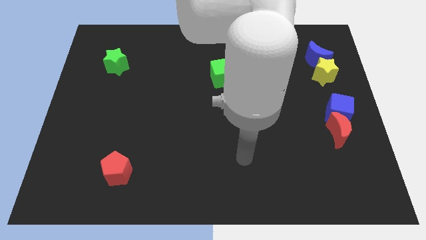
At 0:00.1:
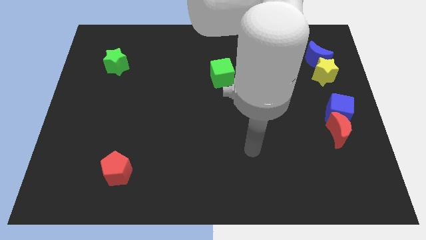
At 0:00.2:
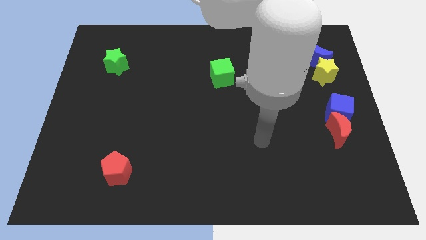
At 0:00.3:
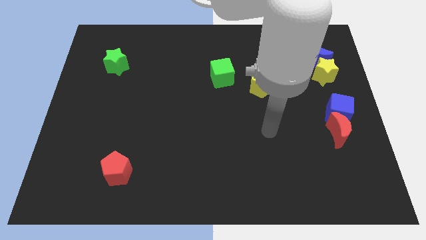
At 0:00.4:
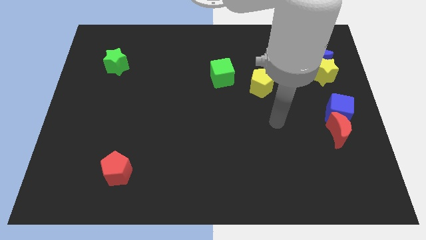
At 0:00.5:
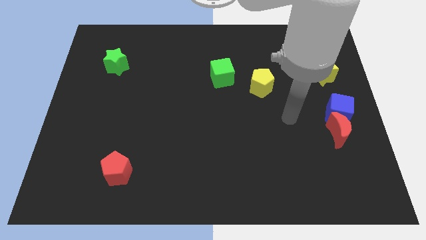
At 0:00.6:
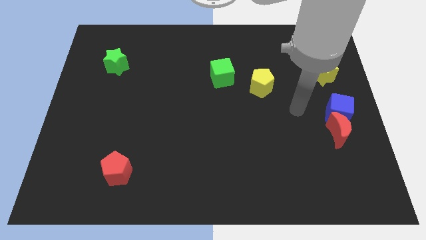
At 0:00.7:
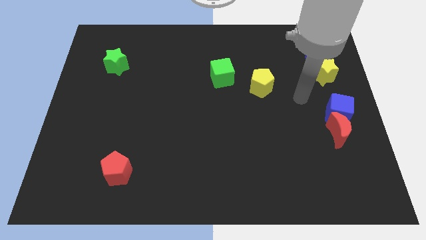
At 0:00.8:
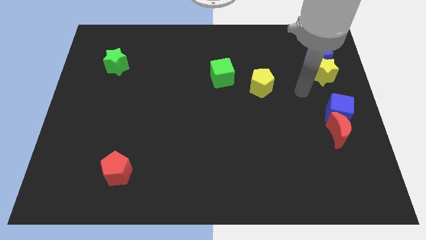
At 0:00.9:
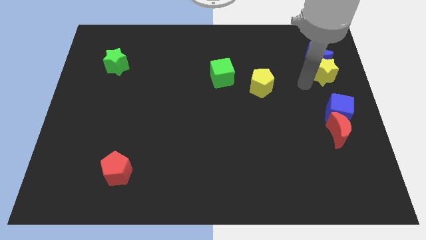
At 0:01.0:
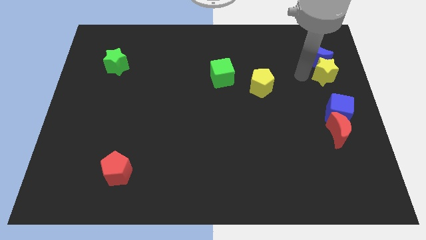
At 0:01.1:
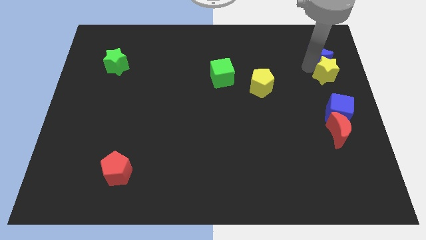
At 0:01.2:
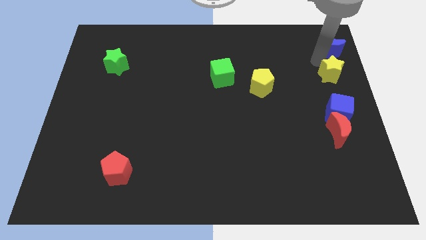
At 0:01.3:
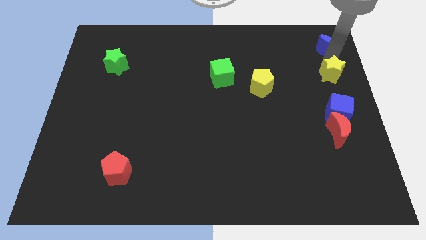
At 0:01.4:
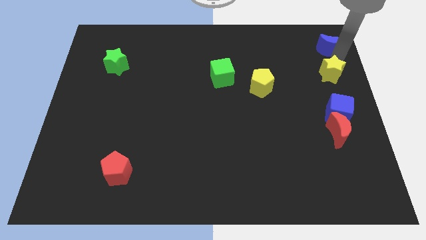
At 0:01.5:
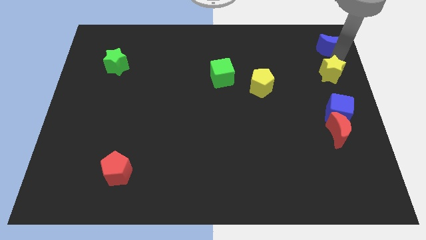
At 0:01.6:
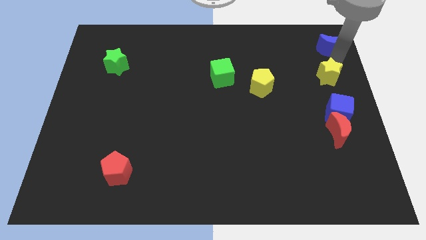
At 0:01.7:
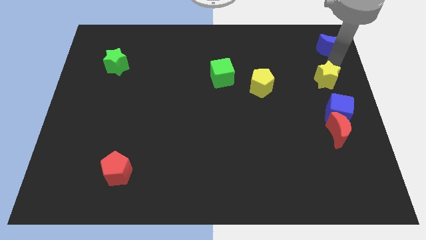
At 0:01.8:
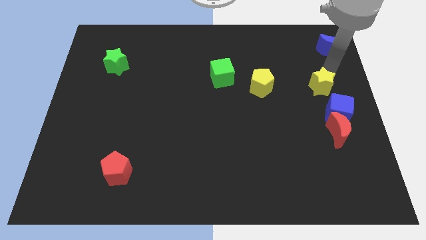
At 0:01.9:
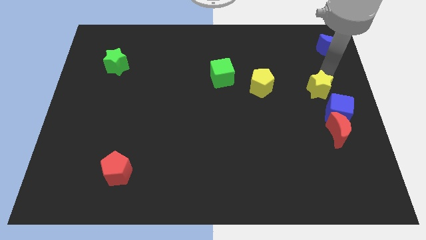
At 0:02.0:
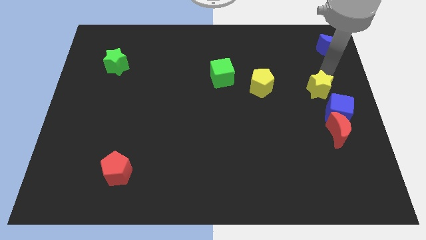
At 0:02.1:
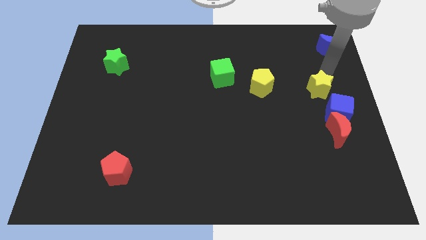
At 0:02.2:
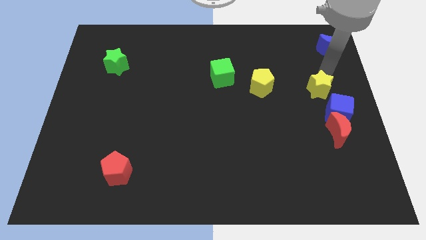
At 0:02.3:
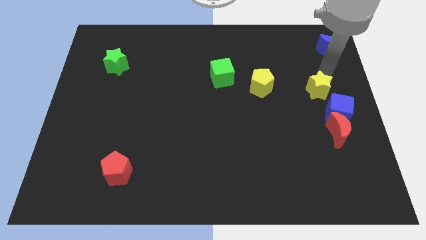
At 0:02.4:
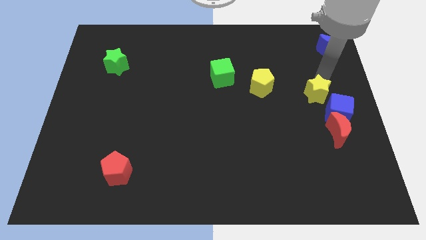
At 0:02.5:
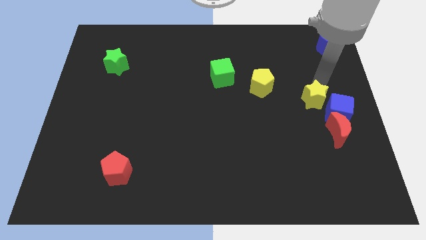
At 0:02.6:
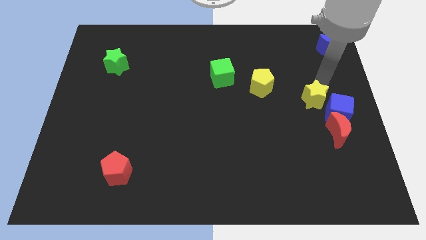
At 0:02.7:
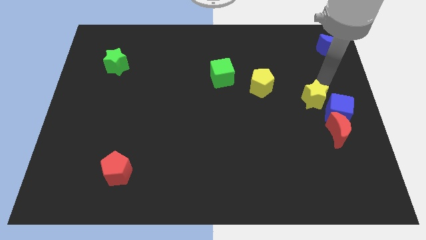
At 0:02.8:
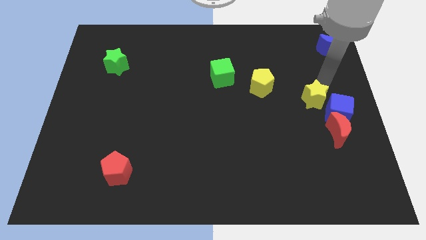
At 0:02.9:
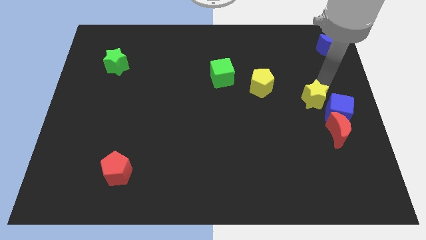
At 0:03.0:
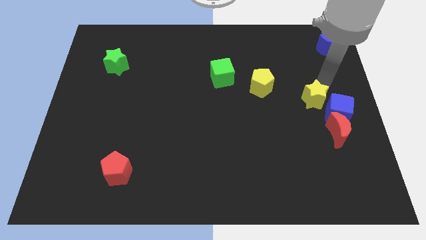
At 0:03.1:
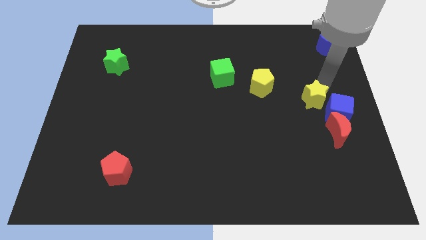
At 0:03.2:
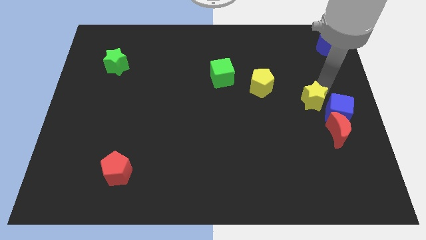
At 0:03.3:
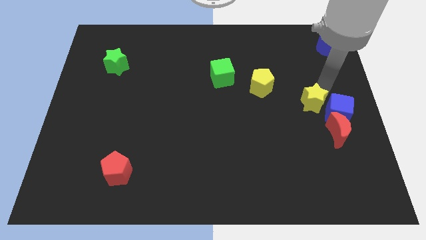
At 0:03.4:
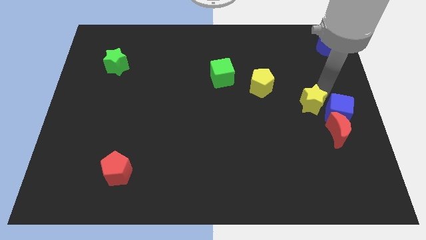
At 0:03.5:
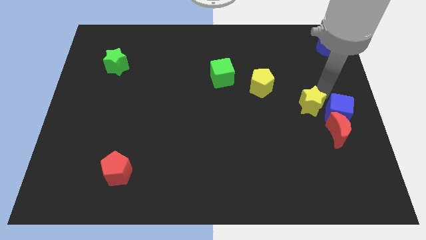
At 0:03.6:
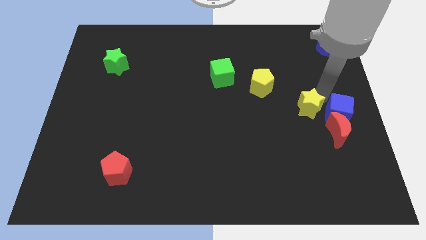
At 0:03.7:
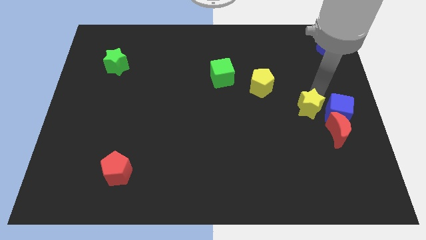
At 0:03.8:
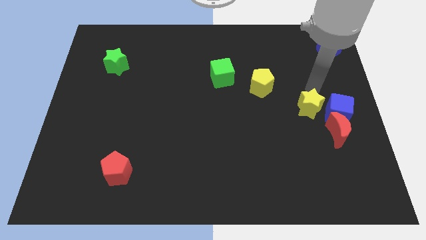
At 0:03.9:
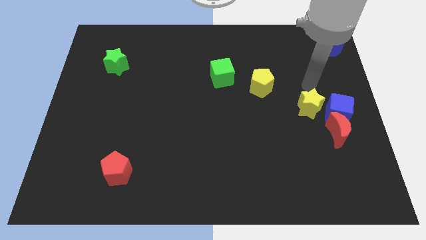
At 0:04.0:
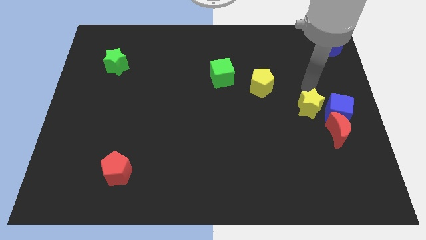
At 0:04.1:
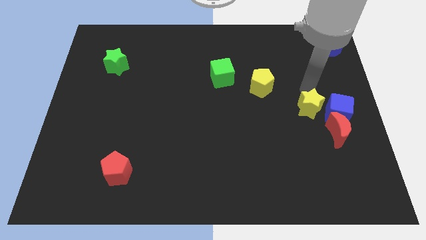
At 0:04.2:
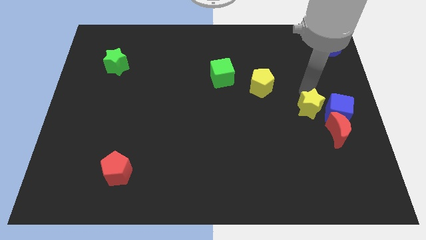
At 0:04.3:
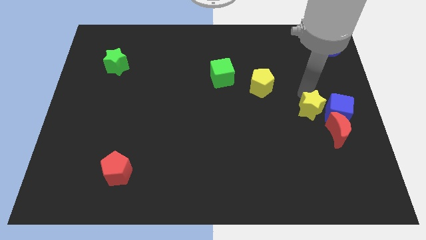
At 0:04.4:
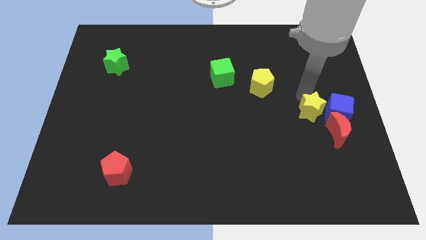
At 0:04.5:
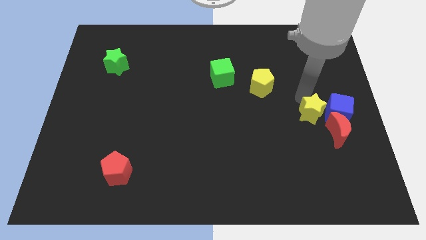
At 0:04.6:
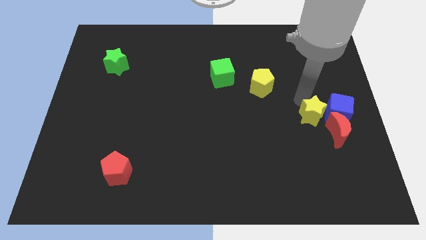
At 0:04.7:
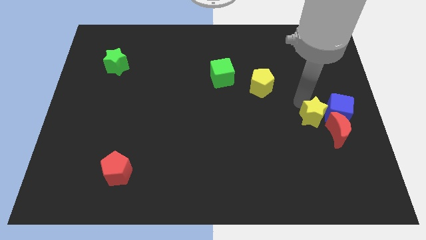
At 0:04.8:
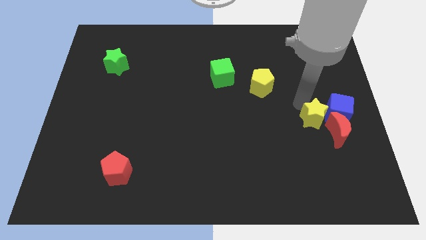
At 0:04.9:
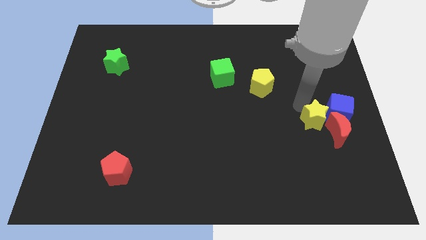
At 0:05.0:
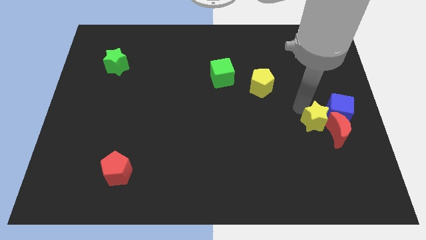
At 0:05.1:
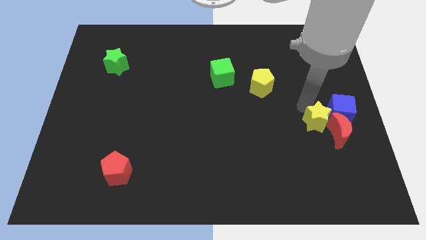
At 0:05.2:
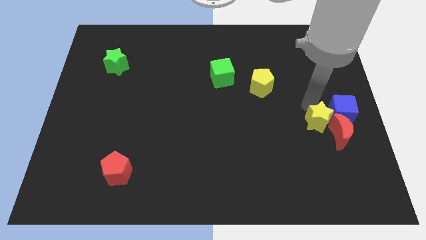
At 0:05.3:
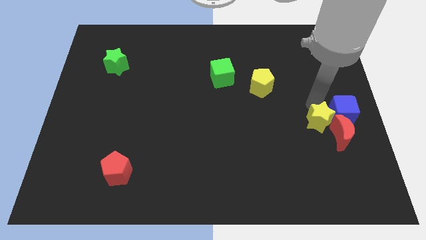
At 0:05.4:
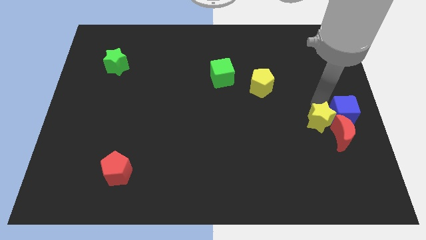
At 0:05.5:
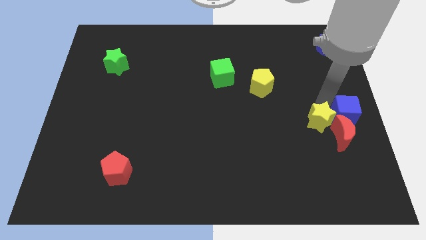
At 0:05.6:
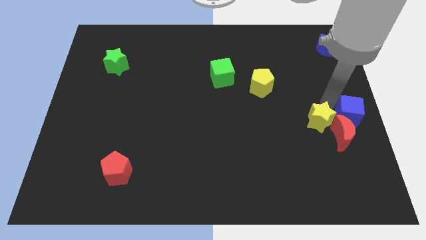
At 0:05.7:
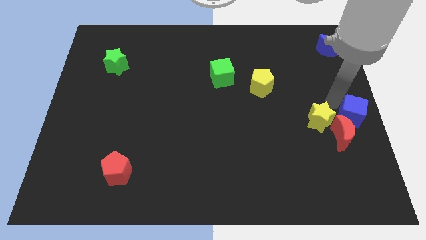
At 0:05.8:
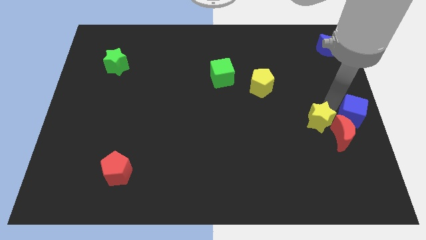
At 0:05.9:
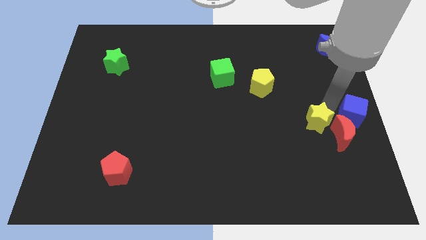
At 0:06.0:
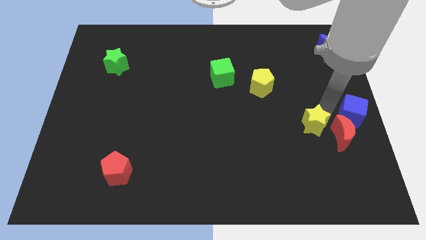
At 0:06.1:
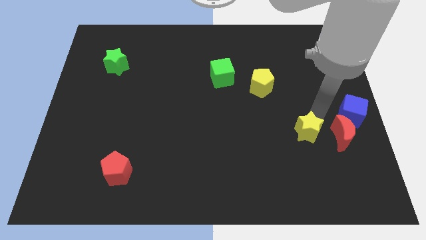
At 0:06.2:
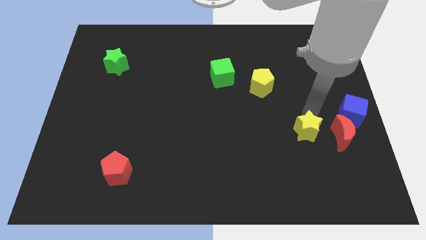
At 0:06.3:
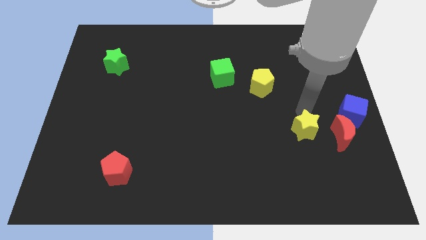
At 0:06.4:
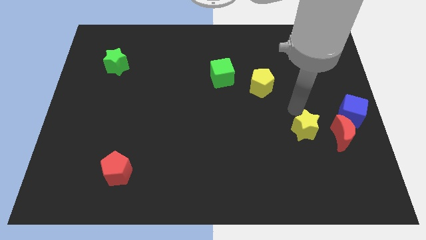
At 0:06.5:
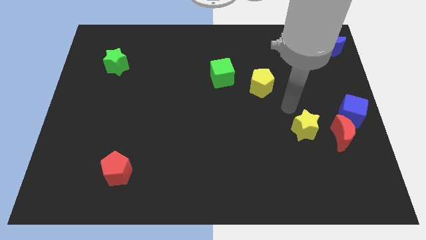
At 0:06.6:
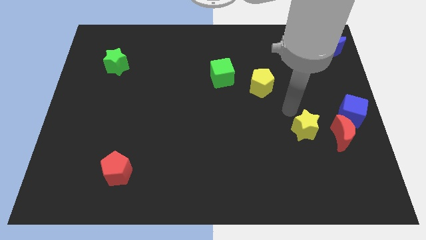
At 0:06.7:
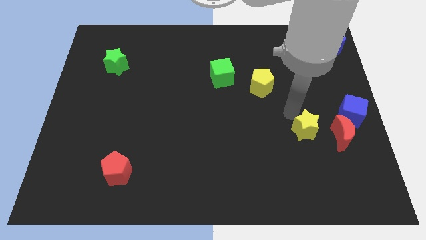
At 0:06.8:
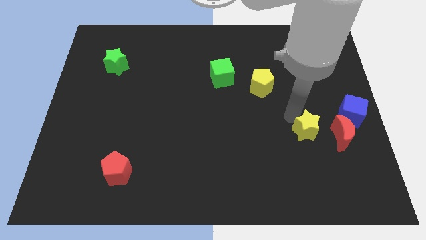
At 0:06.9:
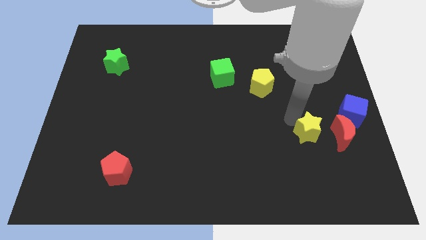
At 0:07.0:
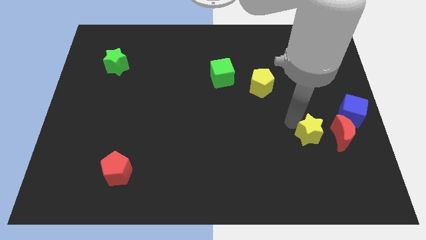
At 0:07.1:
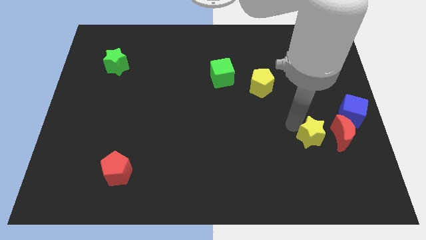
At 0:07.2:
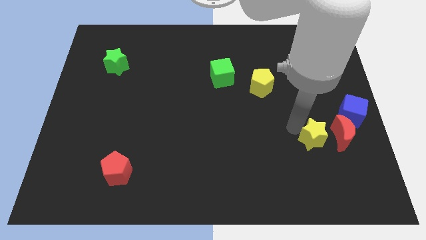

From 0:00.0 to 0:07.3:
put the yellow star to the bottom left of the red moon

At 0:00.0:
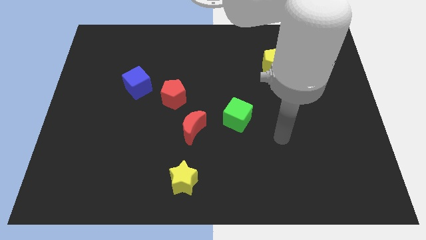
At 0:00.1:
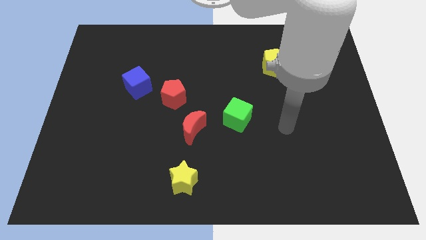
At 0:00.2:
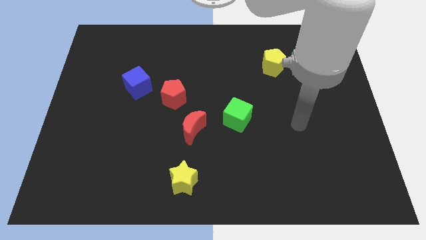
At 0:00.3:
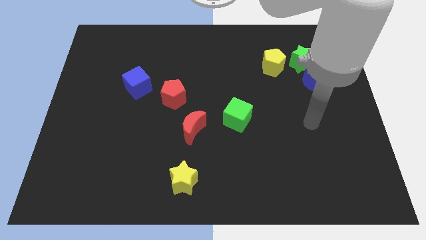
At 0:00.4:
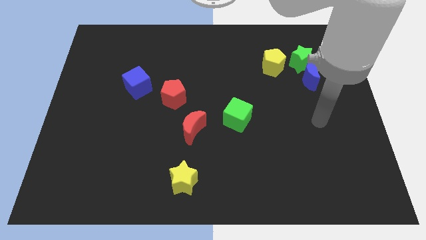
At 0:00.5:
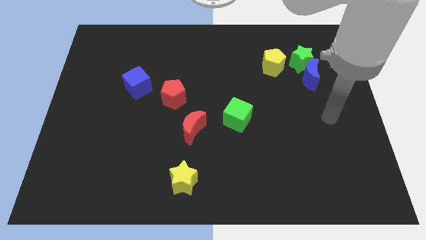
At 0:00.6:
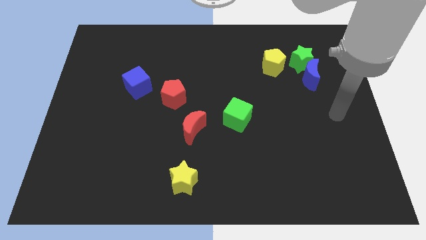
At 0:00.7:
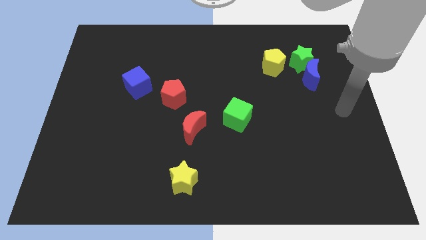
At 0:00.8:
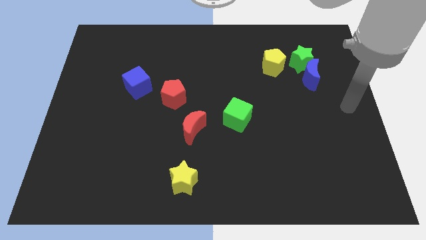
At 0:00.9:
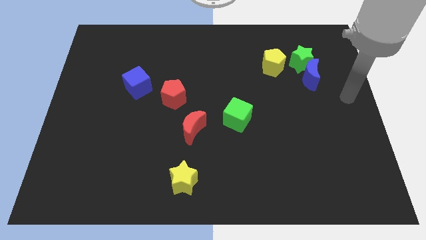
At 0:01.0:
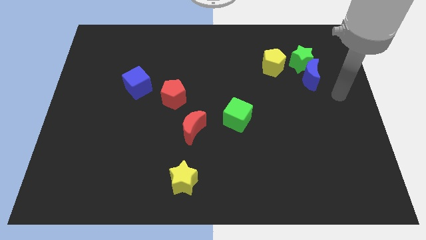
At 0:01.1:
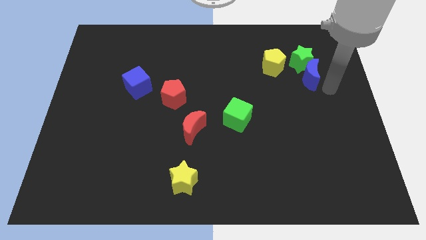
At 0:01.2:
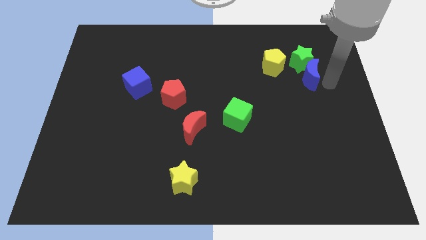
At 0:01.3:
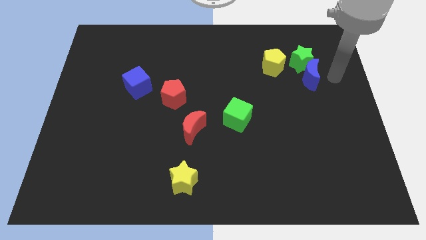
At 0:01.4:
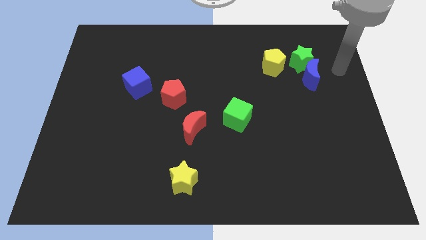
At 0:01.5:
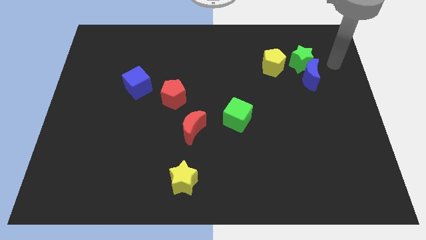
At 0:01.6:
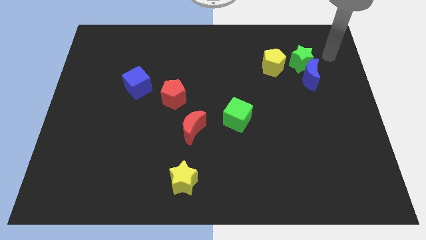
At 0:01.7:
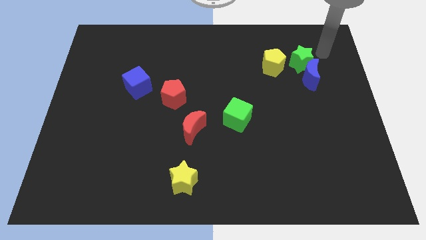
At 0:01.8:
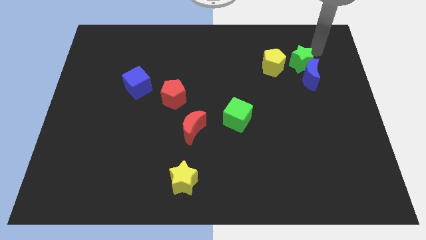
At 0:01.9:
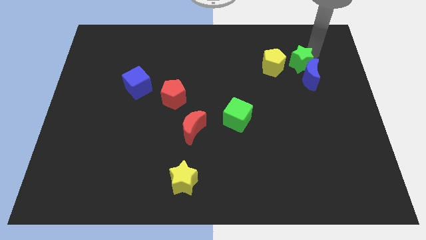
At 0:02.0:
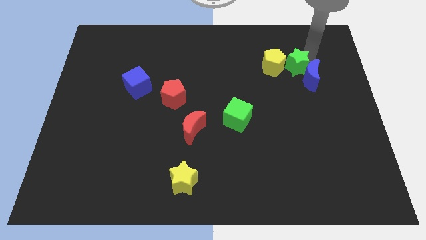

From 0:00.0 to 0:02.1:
slide the green star to the left side of the blue moon
